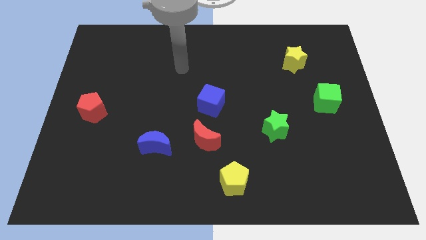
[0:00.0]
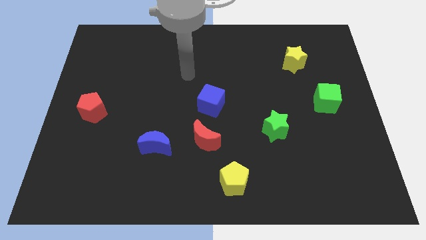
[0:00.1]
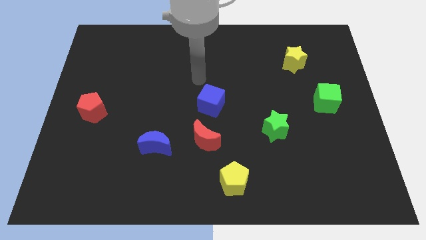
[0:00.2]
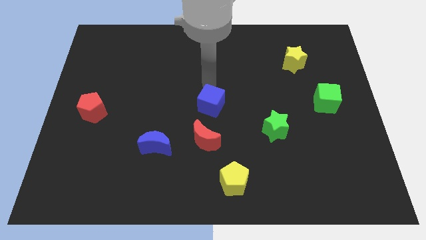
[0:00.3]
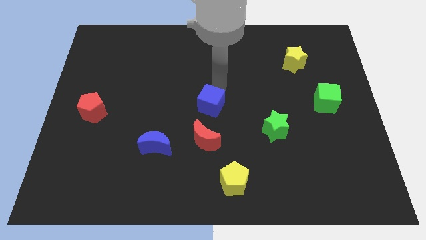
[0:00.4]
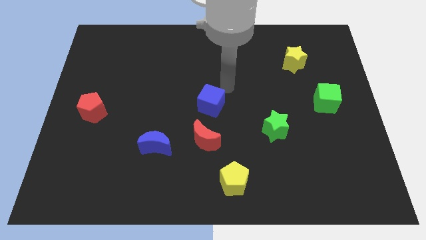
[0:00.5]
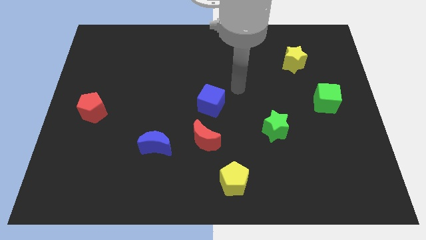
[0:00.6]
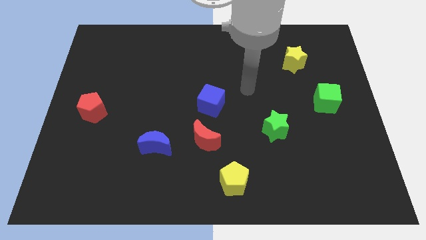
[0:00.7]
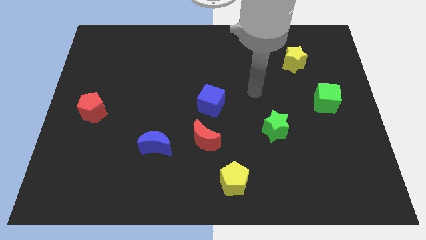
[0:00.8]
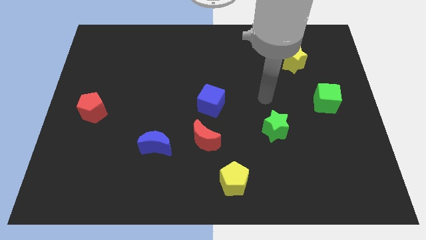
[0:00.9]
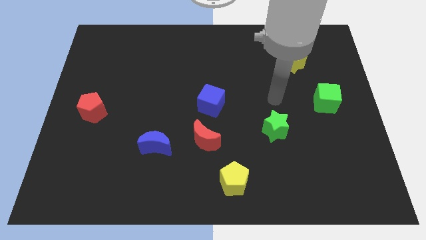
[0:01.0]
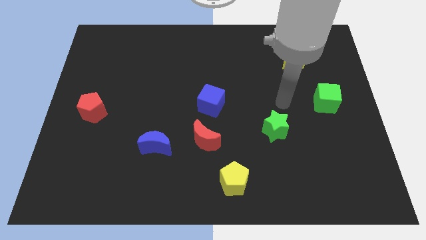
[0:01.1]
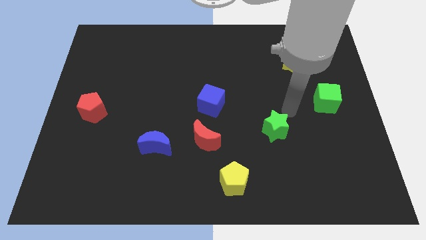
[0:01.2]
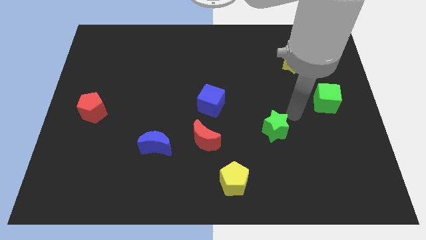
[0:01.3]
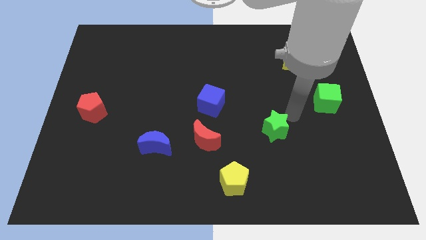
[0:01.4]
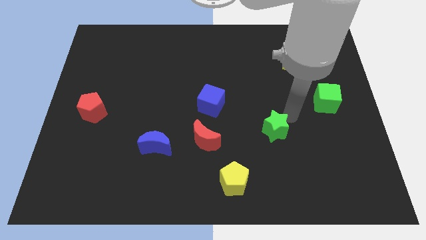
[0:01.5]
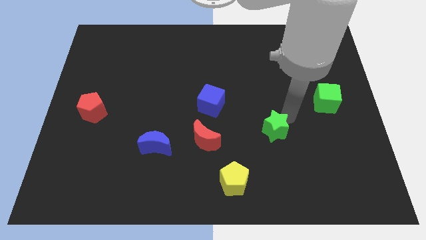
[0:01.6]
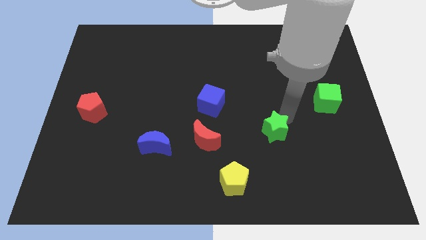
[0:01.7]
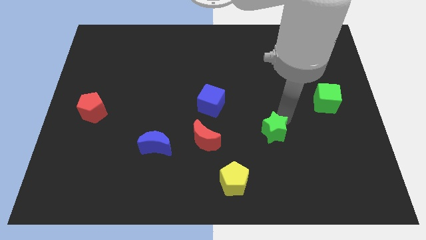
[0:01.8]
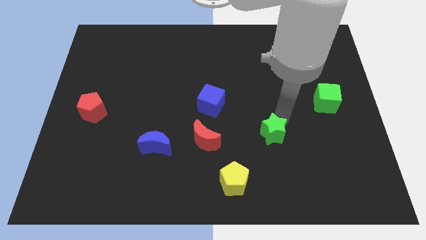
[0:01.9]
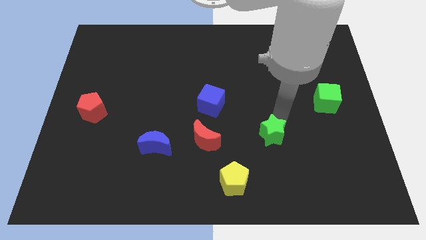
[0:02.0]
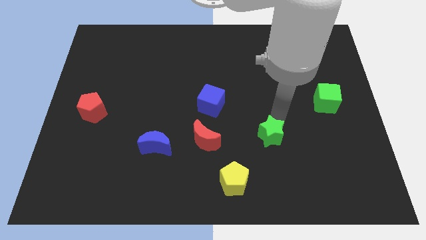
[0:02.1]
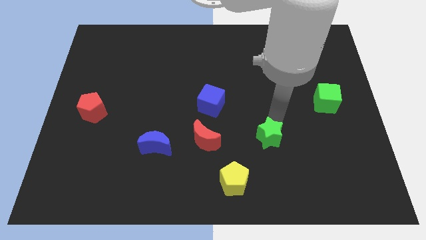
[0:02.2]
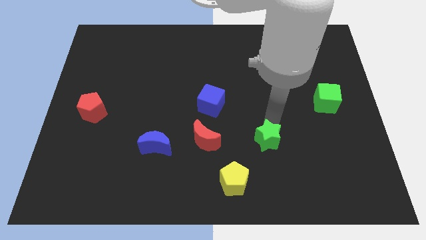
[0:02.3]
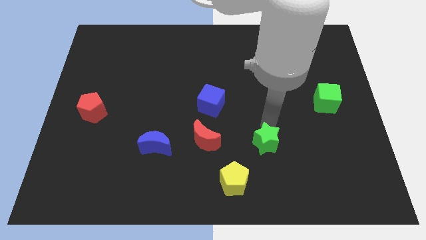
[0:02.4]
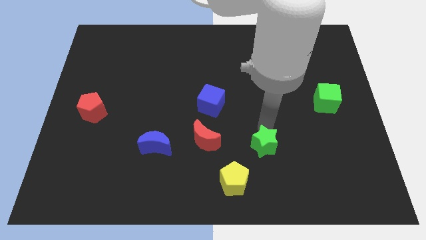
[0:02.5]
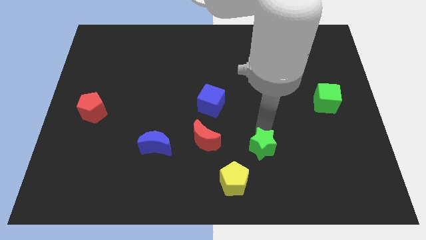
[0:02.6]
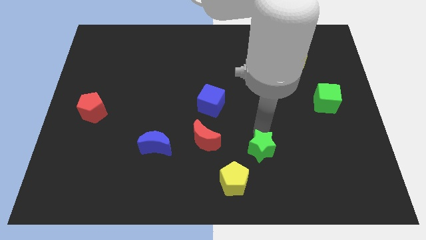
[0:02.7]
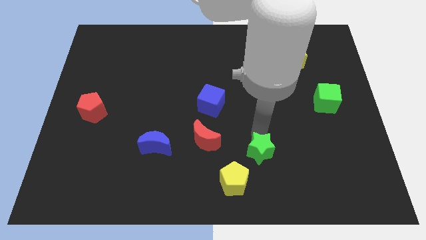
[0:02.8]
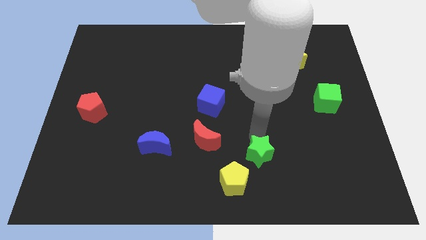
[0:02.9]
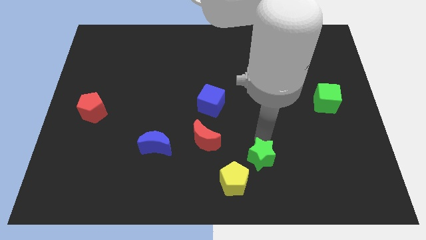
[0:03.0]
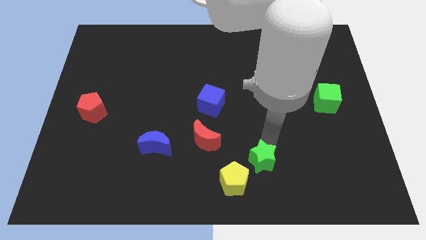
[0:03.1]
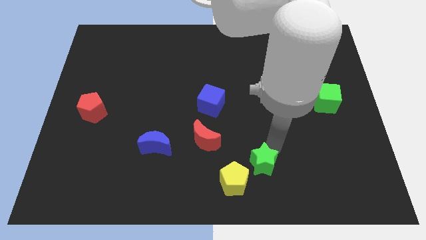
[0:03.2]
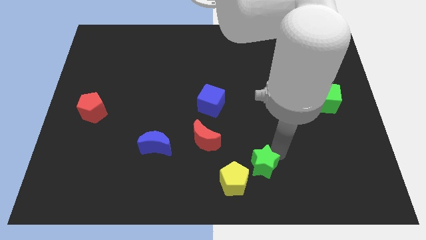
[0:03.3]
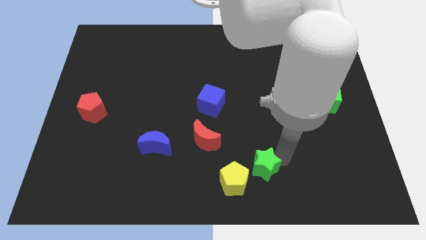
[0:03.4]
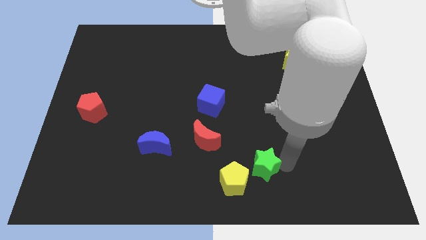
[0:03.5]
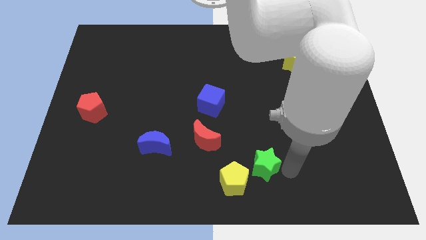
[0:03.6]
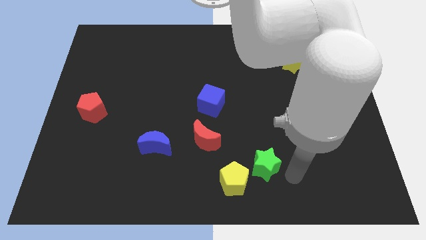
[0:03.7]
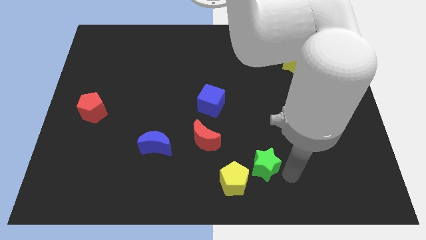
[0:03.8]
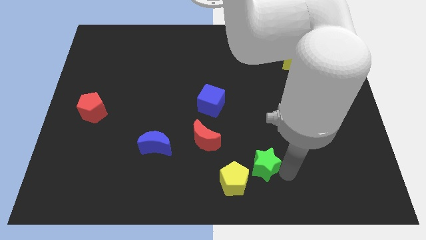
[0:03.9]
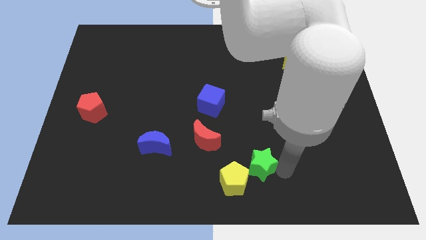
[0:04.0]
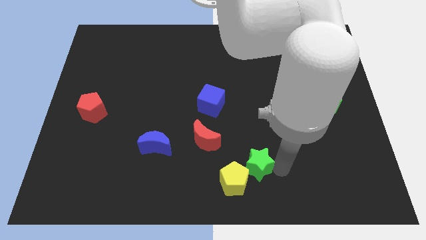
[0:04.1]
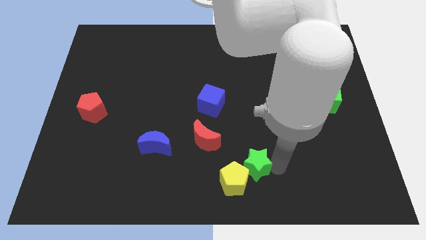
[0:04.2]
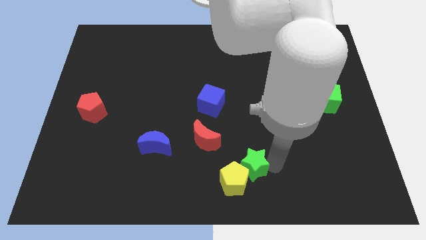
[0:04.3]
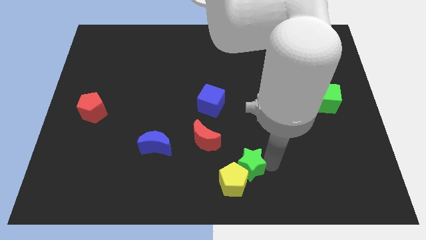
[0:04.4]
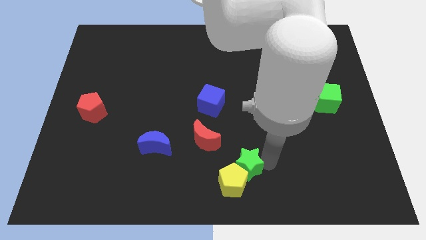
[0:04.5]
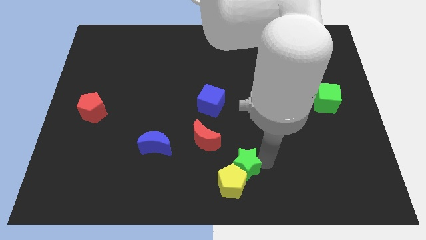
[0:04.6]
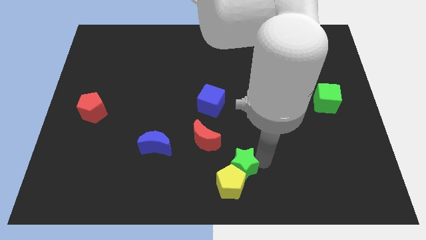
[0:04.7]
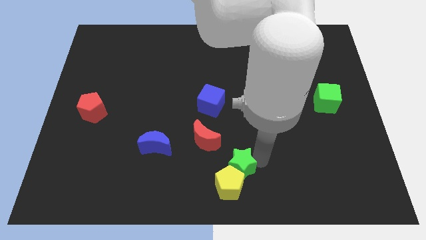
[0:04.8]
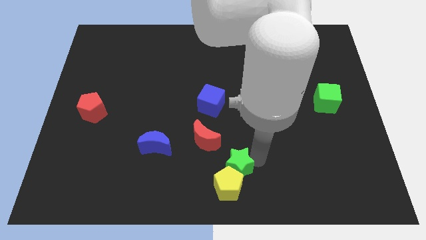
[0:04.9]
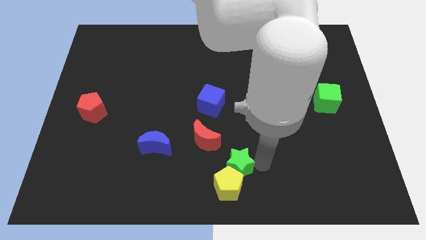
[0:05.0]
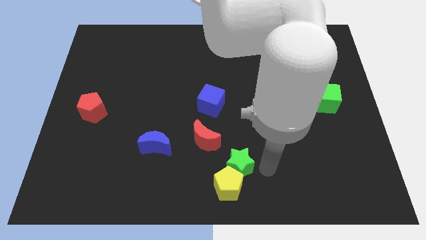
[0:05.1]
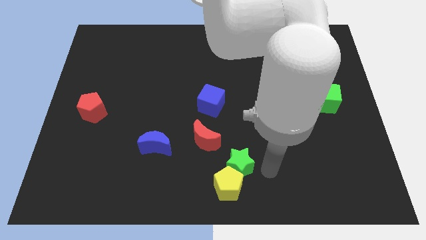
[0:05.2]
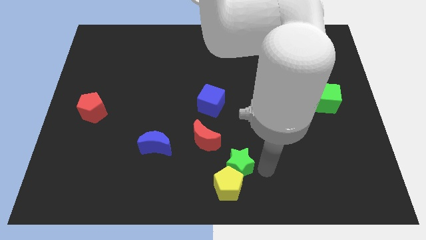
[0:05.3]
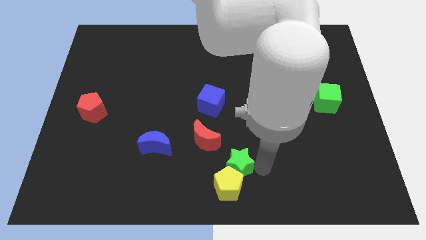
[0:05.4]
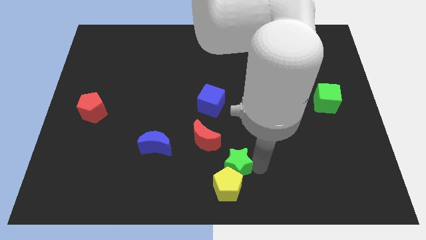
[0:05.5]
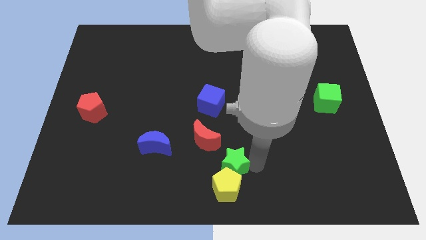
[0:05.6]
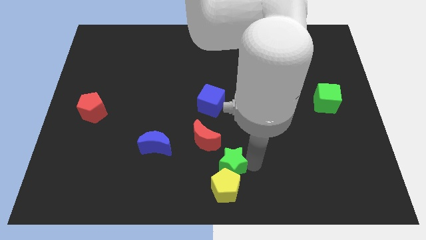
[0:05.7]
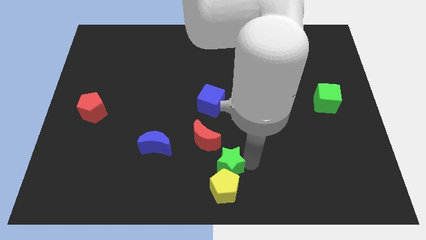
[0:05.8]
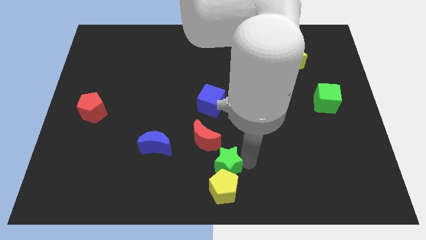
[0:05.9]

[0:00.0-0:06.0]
push the green star to the bottom side of the red moon

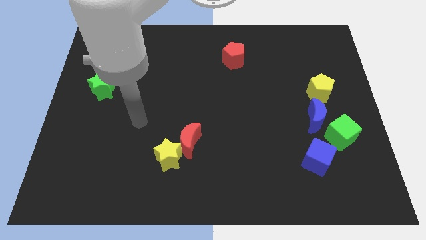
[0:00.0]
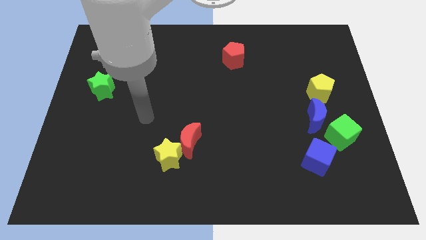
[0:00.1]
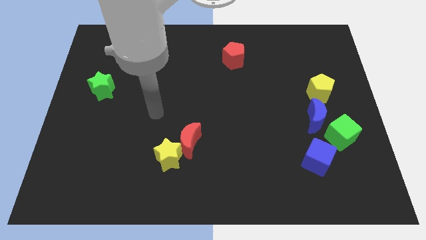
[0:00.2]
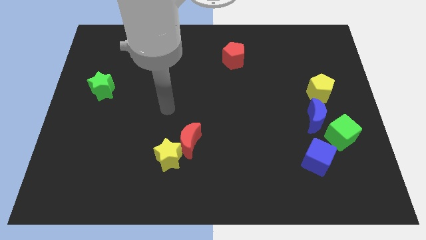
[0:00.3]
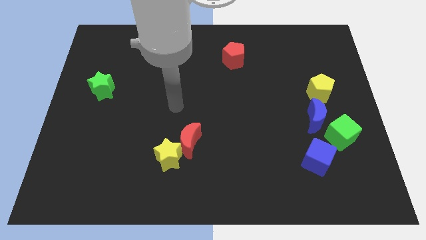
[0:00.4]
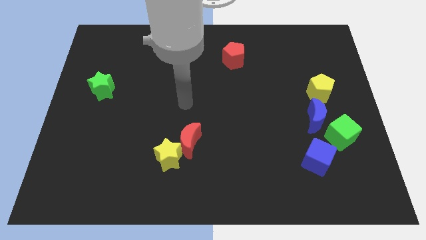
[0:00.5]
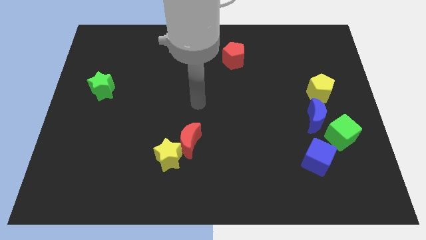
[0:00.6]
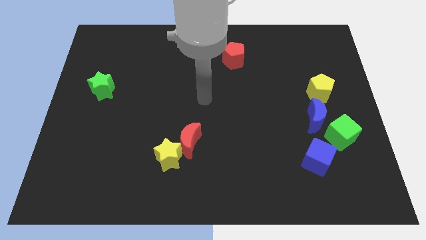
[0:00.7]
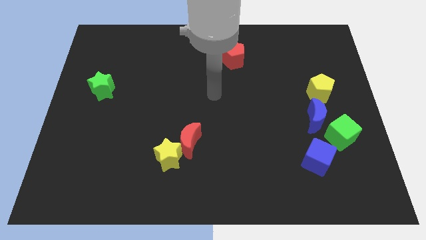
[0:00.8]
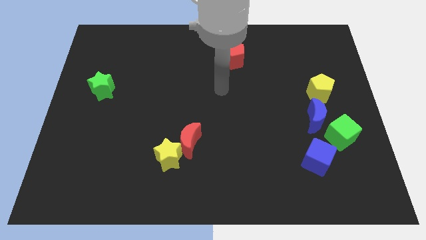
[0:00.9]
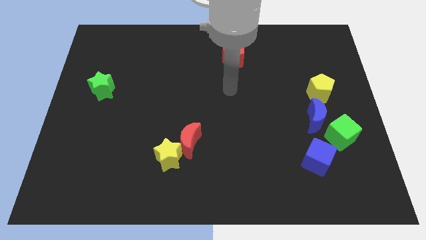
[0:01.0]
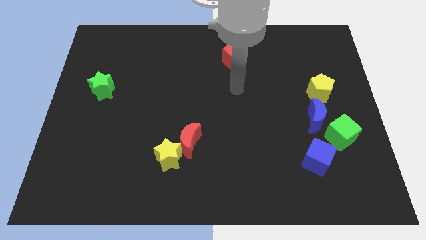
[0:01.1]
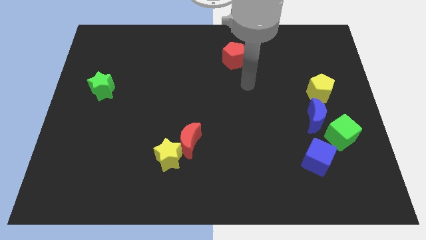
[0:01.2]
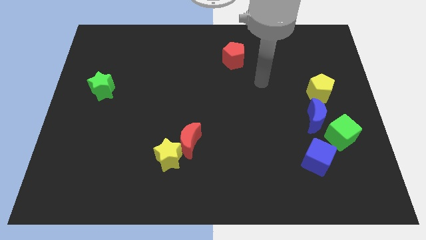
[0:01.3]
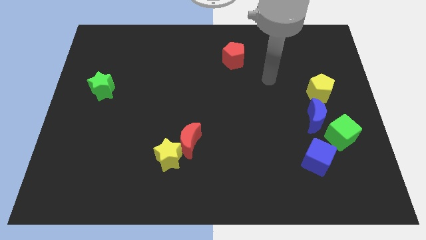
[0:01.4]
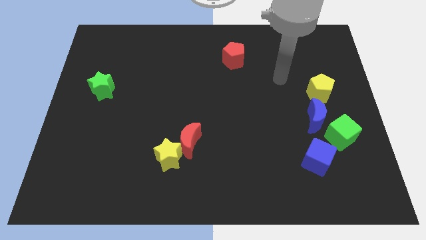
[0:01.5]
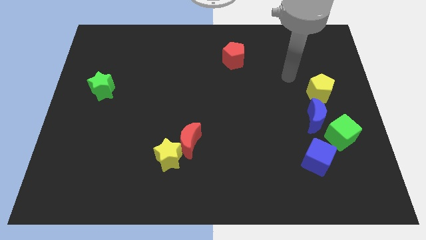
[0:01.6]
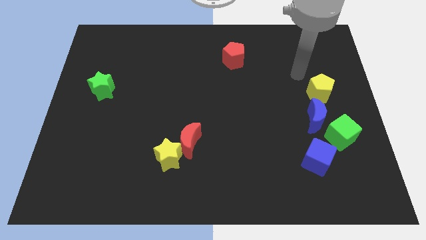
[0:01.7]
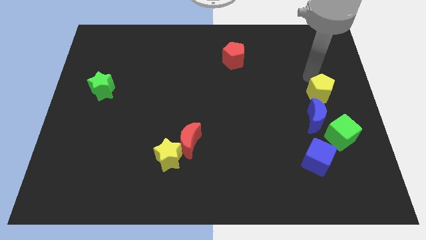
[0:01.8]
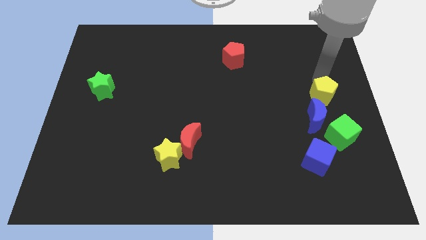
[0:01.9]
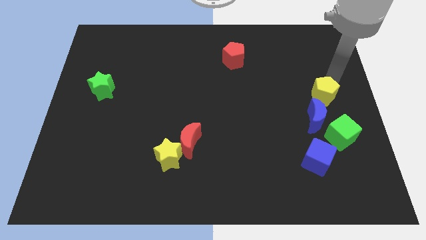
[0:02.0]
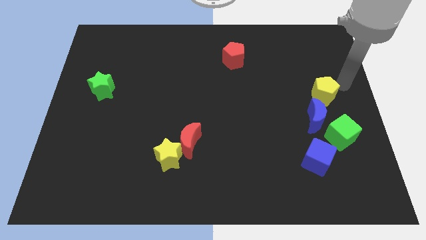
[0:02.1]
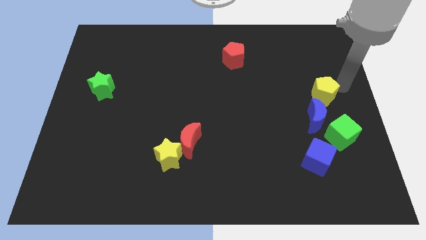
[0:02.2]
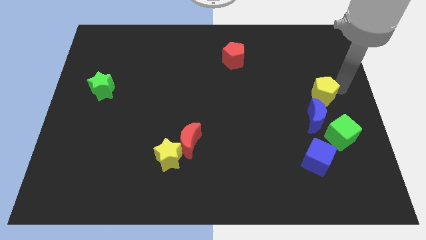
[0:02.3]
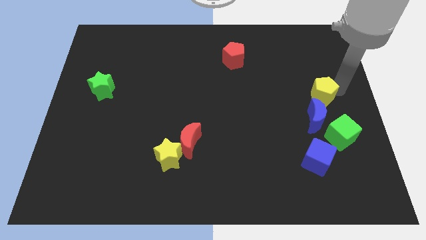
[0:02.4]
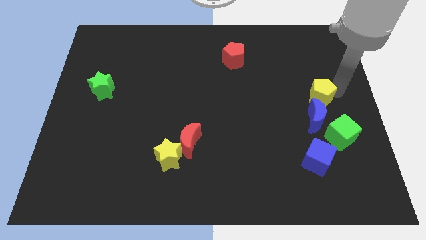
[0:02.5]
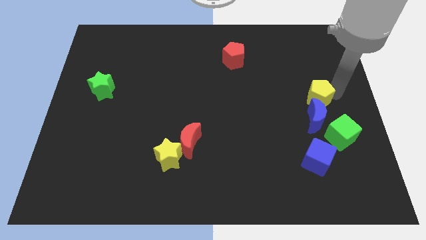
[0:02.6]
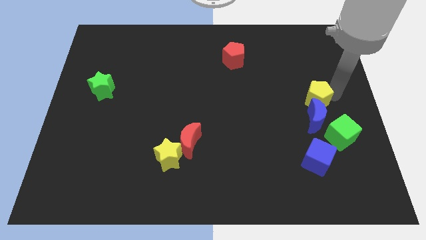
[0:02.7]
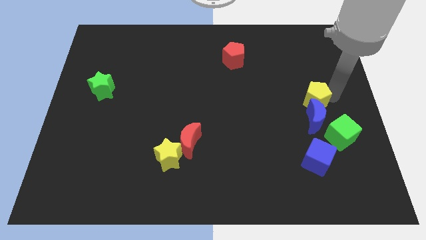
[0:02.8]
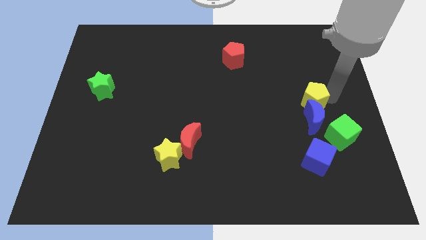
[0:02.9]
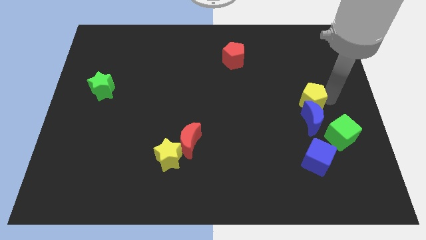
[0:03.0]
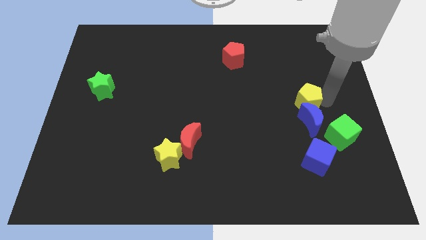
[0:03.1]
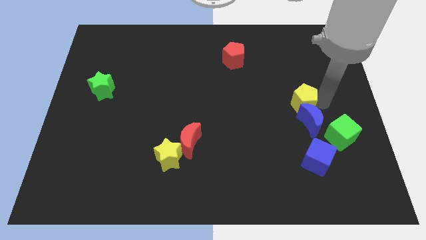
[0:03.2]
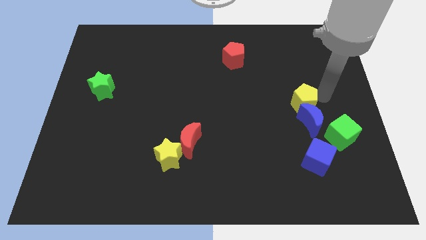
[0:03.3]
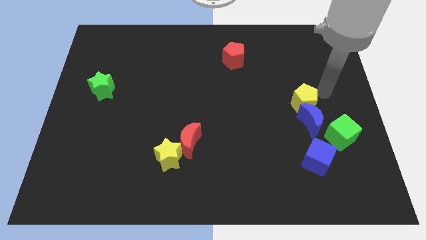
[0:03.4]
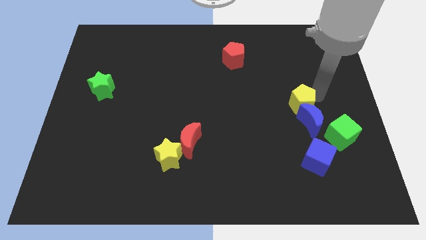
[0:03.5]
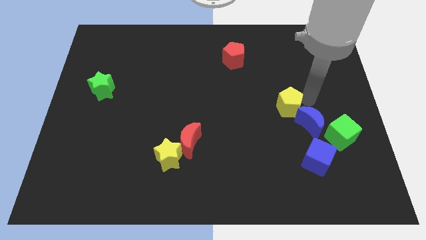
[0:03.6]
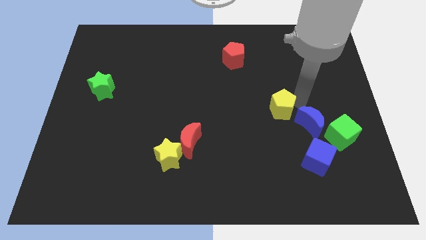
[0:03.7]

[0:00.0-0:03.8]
slide the yellow pentagon to the left of the blue moon
